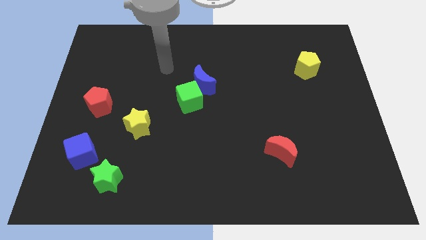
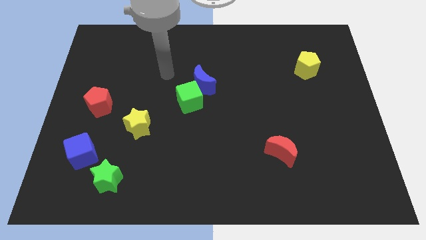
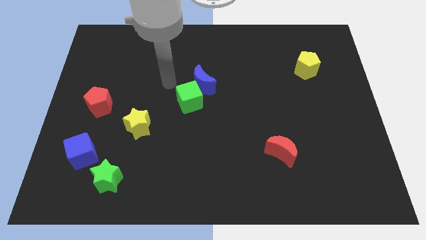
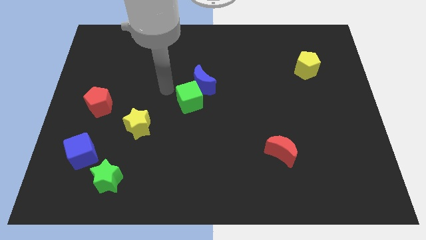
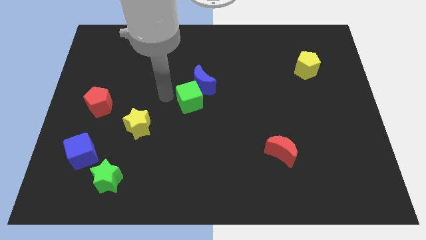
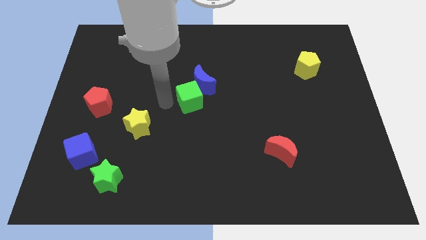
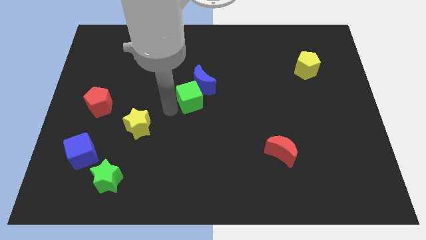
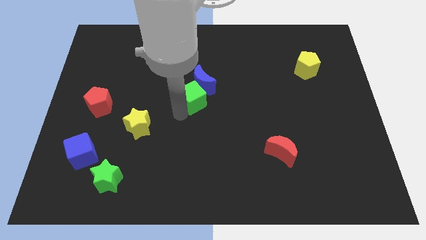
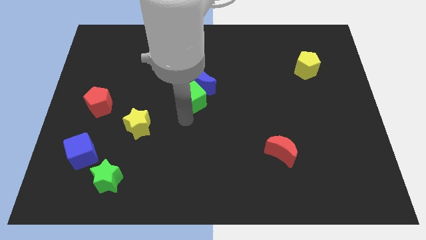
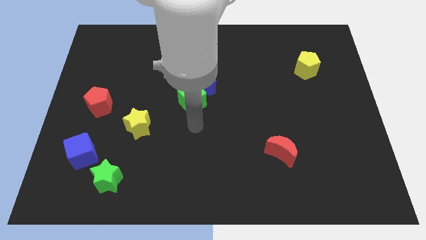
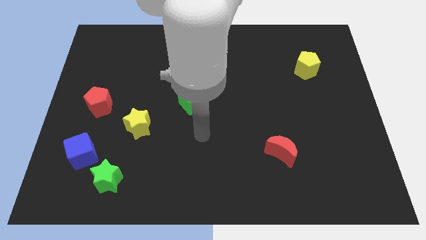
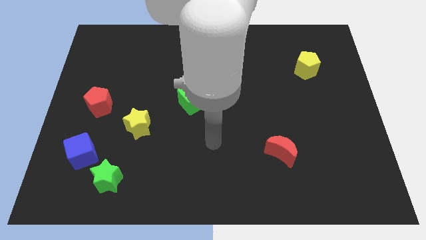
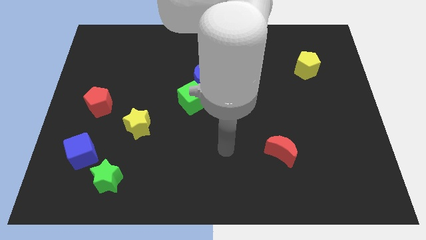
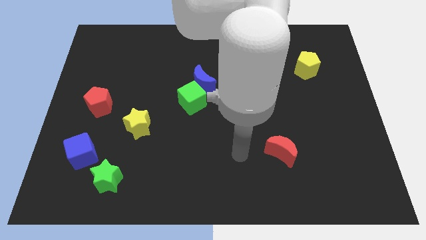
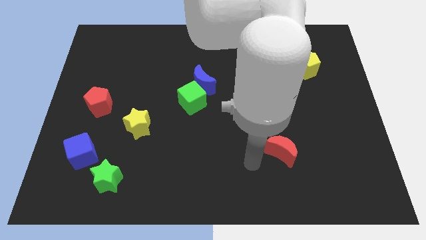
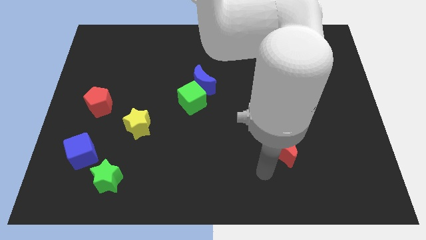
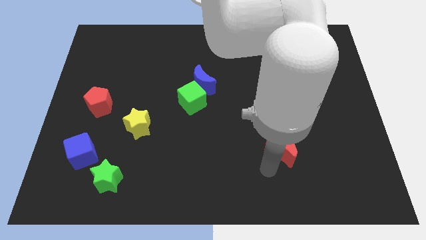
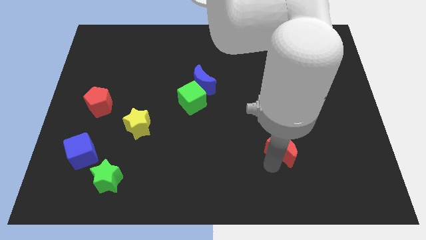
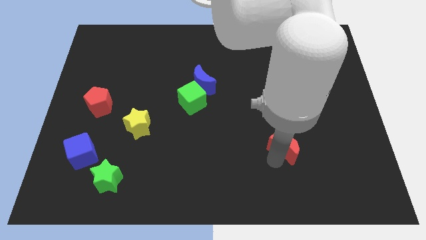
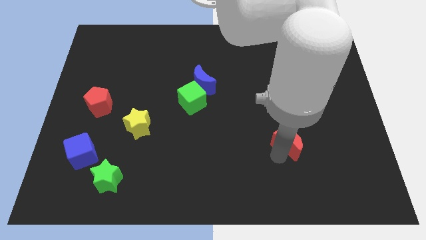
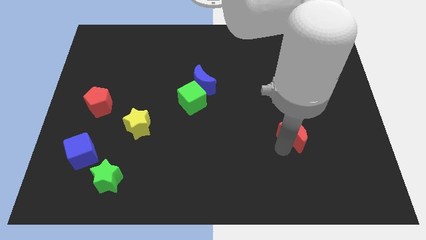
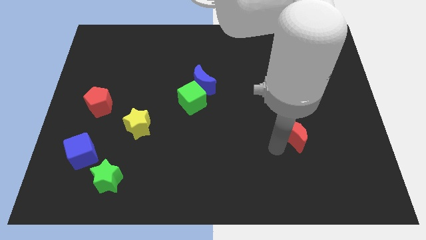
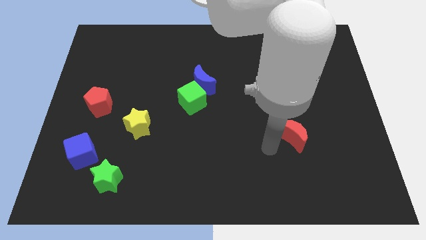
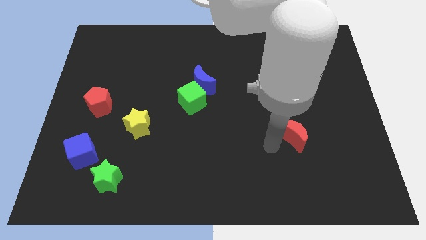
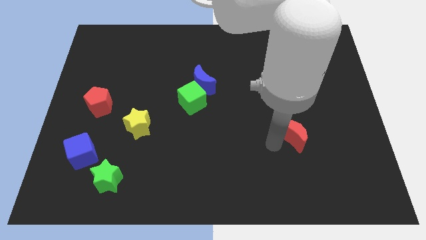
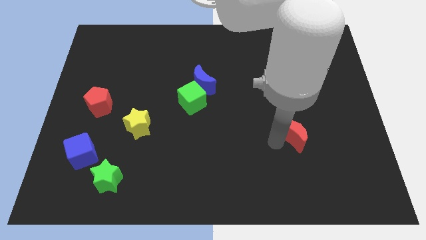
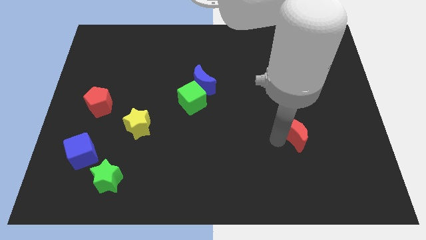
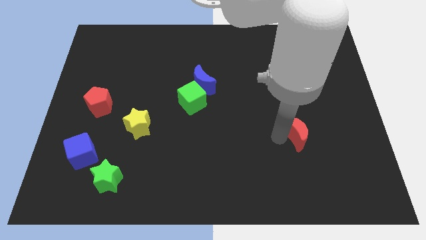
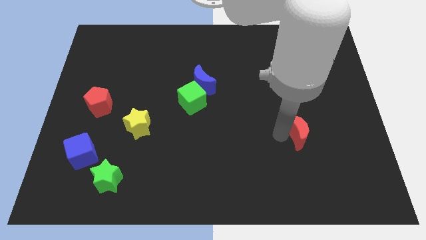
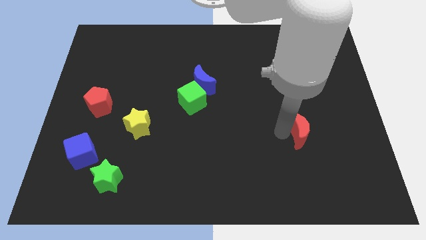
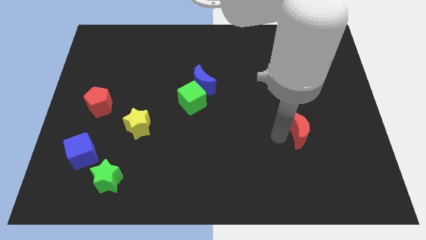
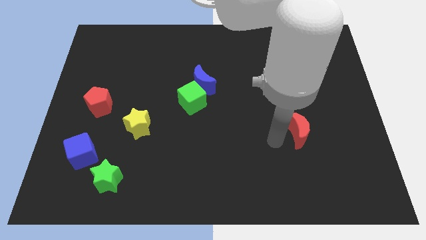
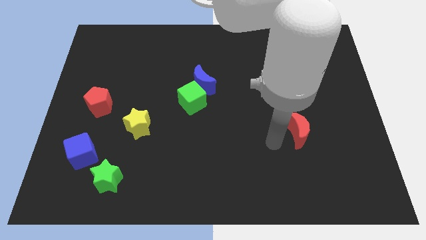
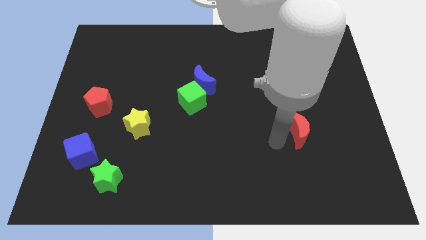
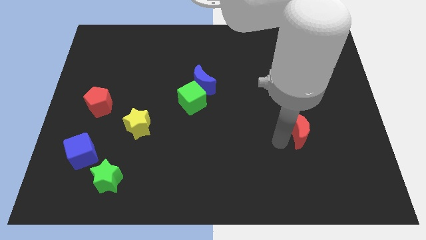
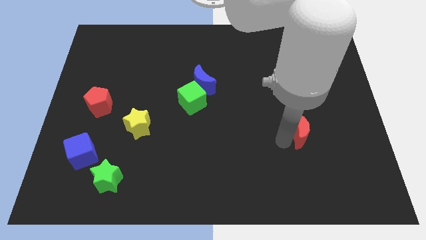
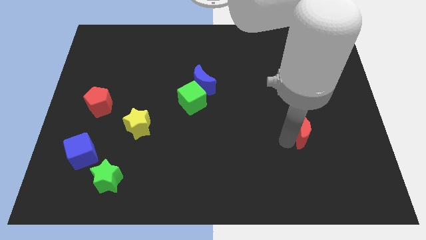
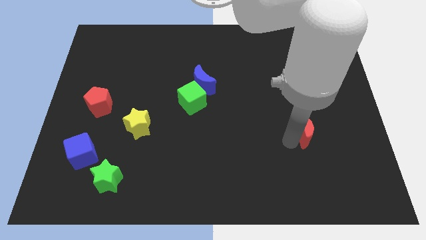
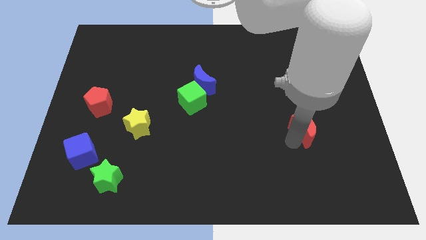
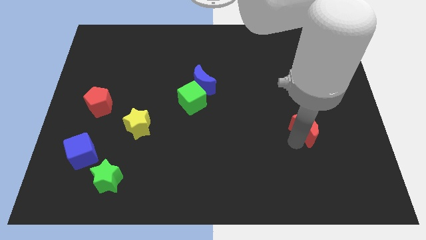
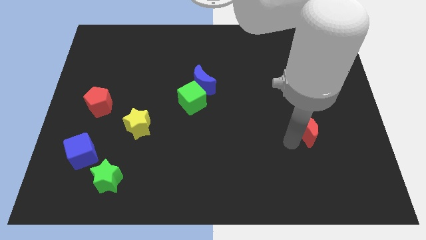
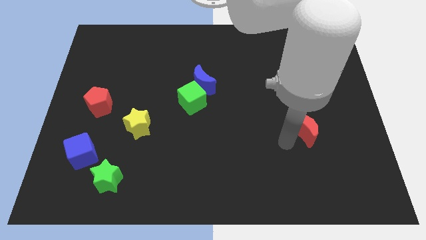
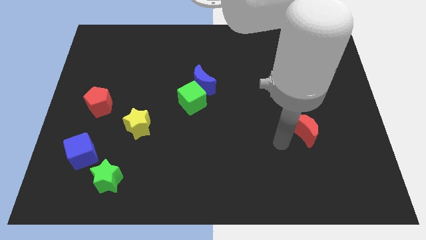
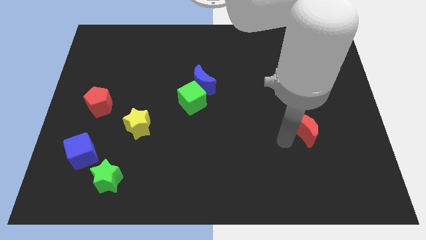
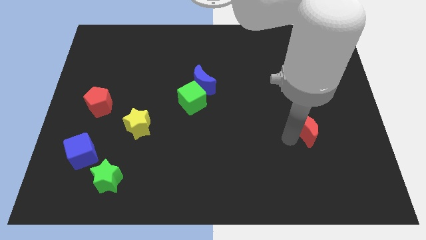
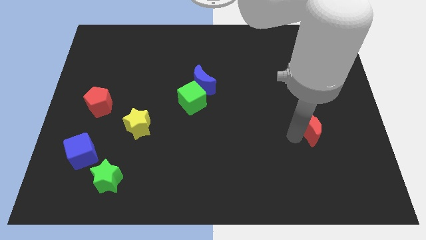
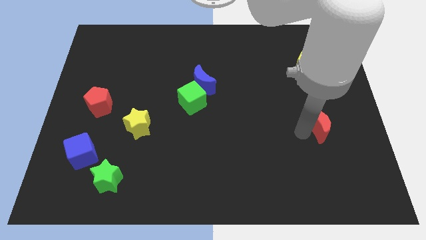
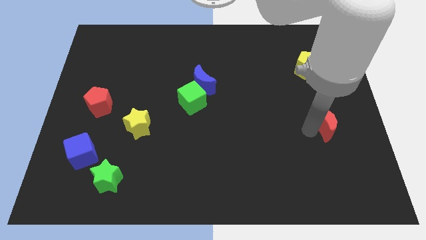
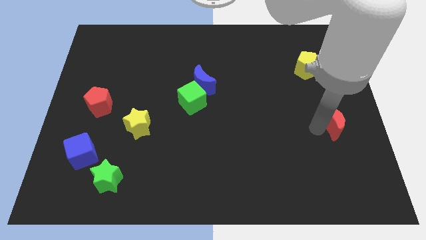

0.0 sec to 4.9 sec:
push the red moon to the center right

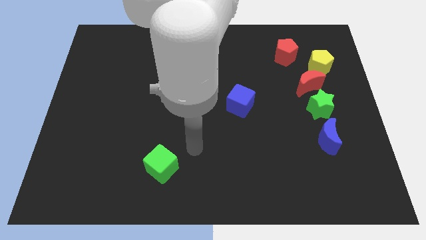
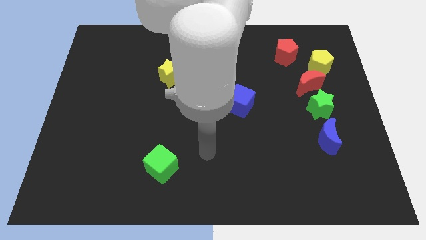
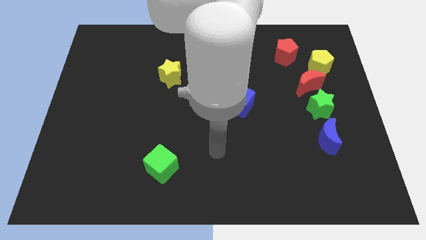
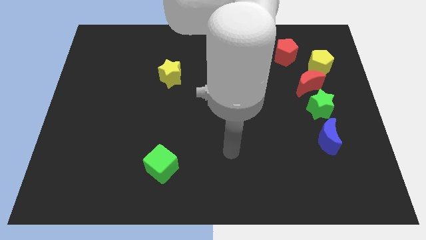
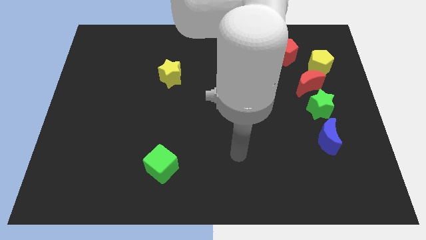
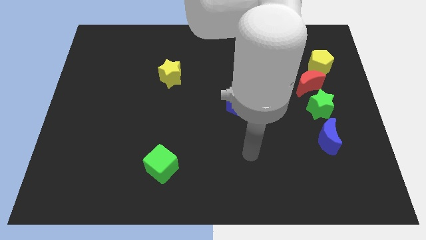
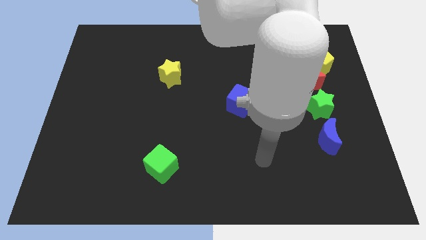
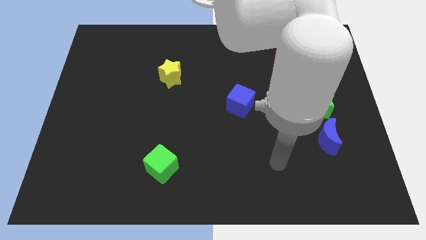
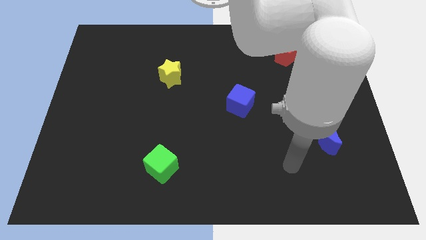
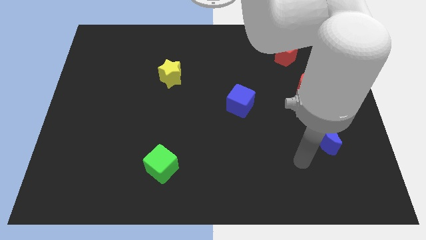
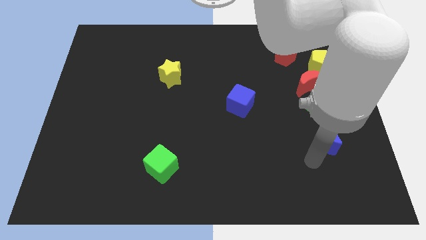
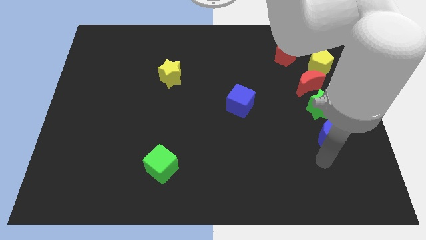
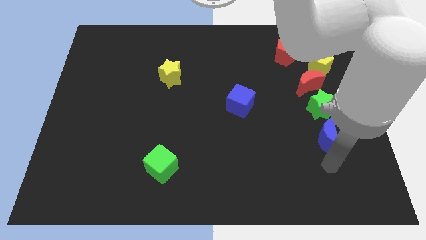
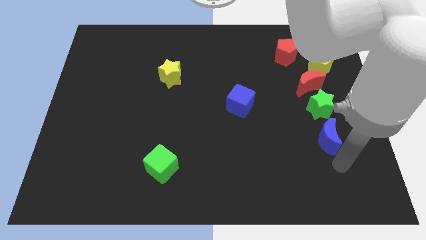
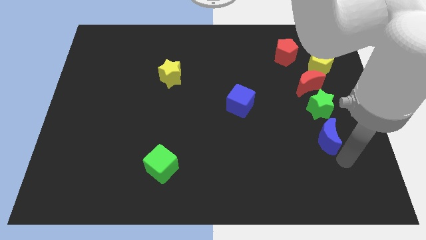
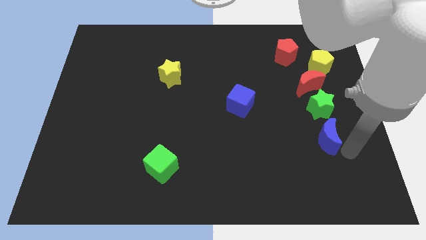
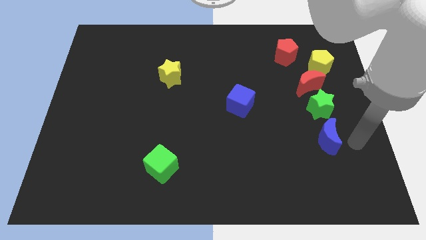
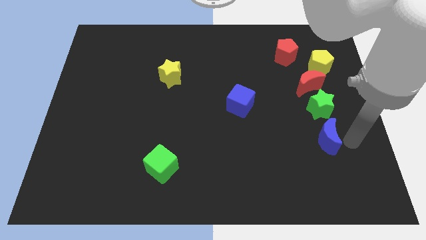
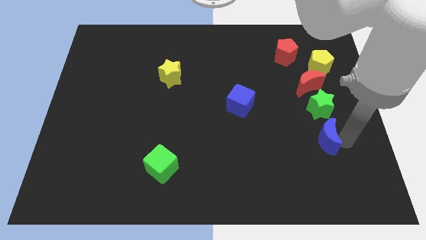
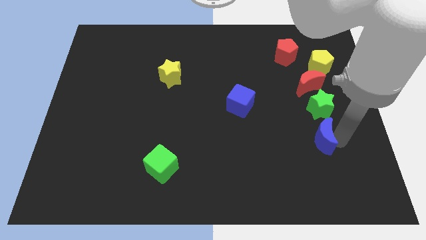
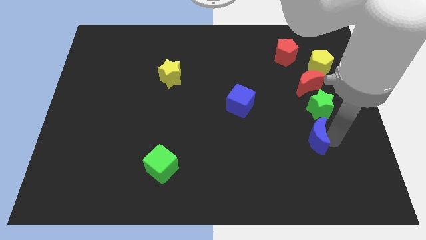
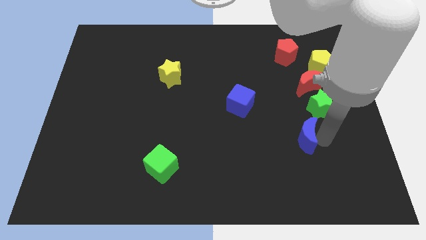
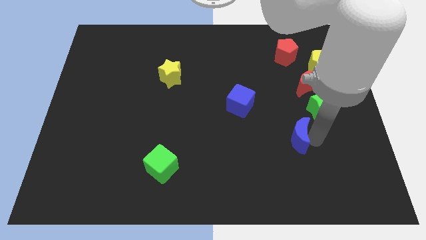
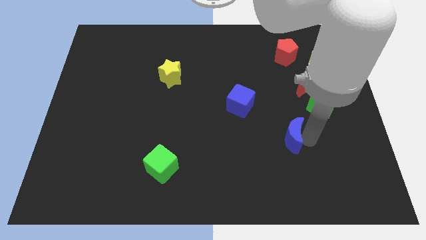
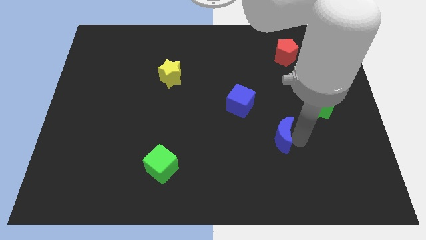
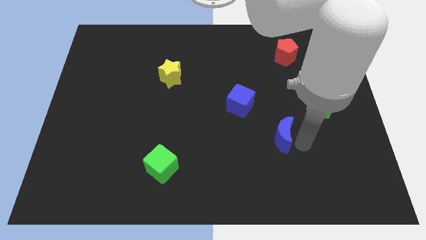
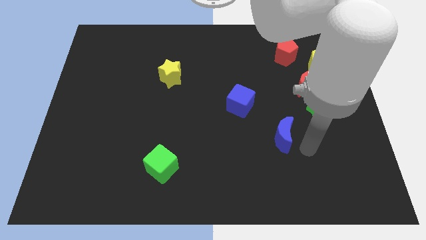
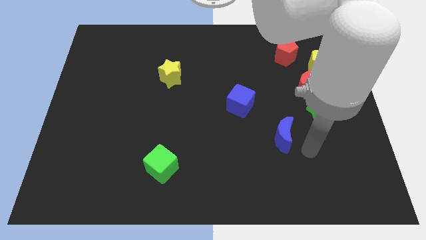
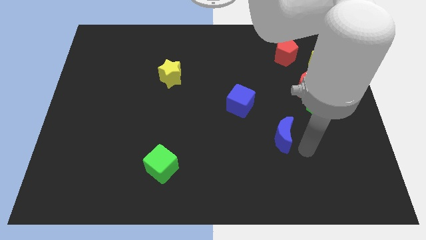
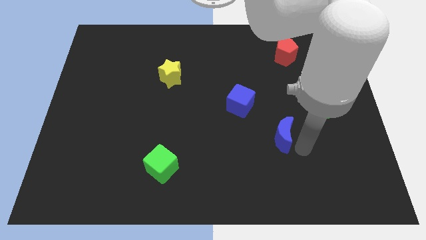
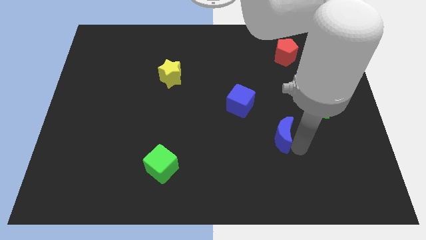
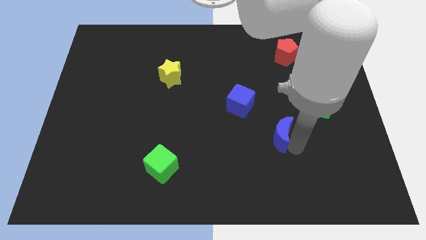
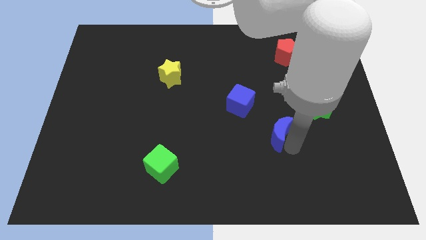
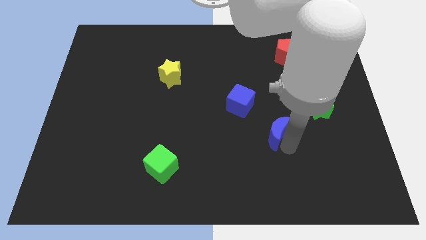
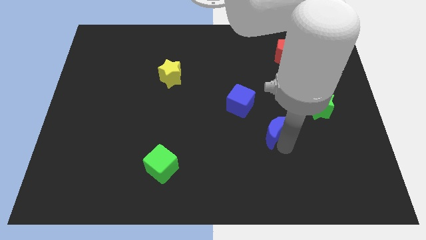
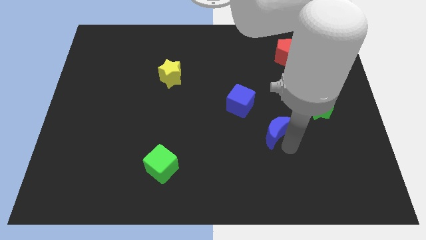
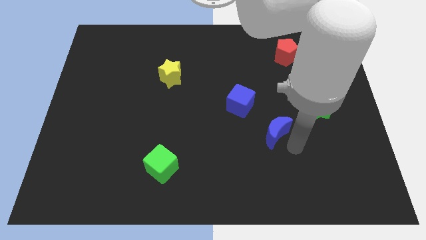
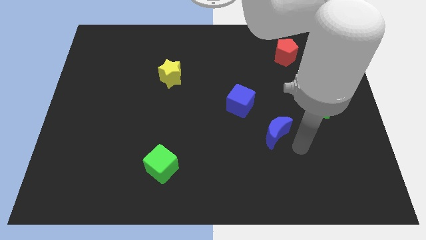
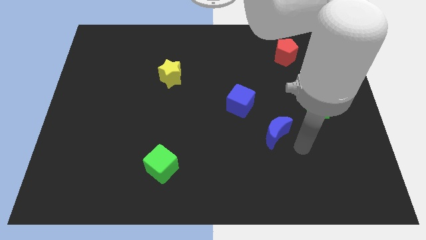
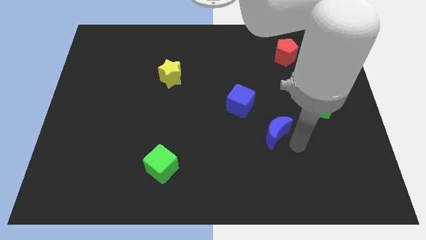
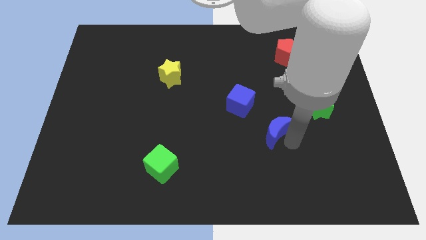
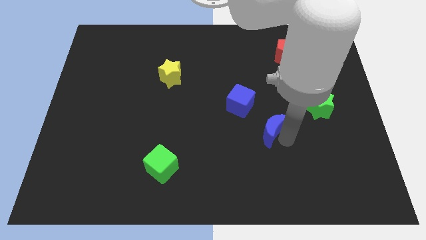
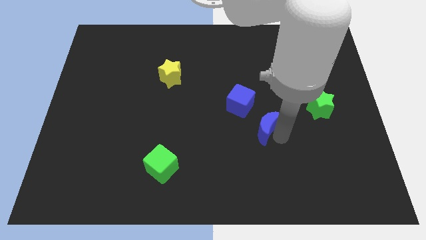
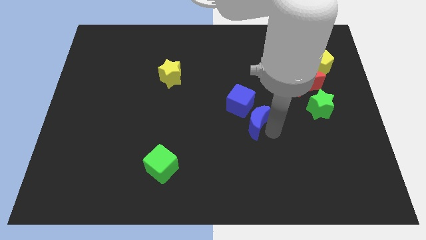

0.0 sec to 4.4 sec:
push the blue moon to the middle of the board
